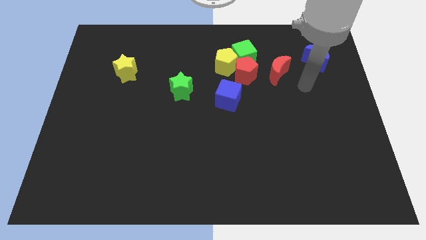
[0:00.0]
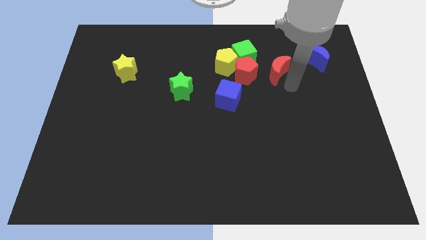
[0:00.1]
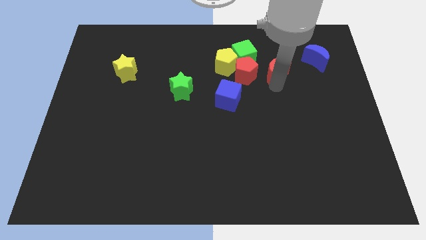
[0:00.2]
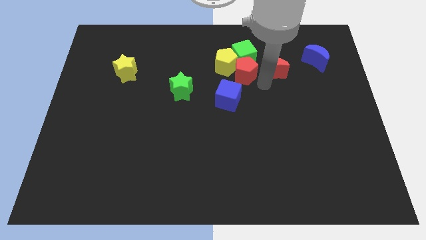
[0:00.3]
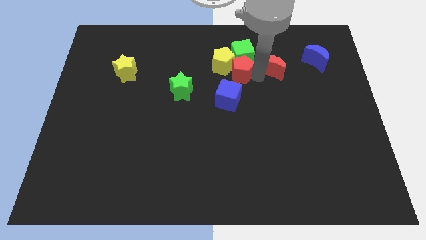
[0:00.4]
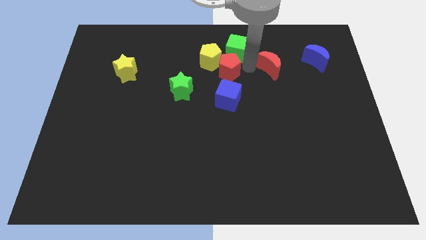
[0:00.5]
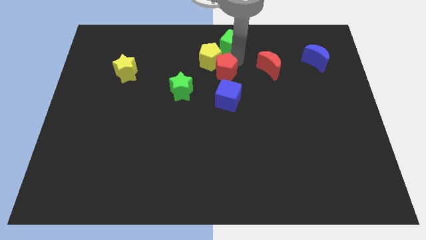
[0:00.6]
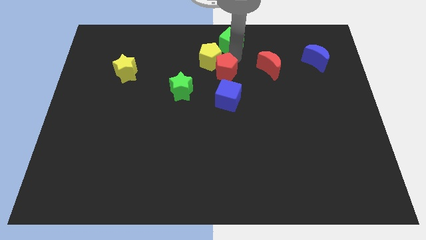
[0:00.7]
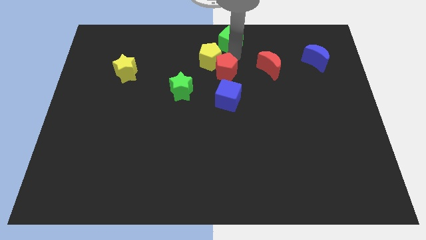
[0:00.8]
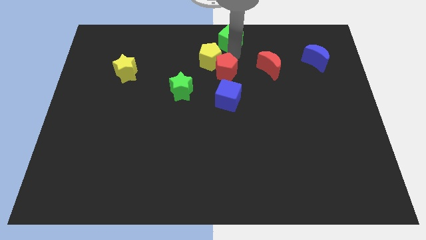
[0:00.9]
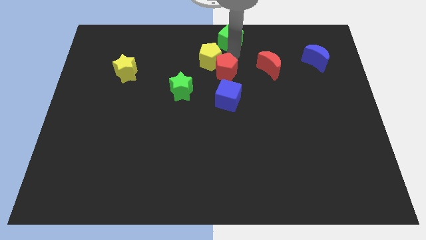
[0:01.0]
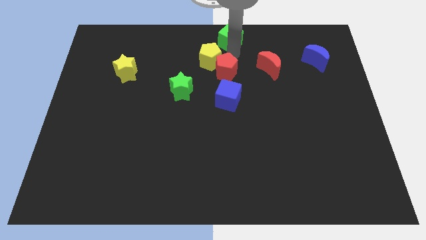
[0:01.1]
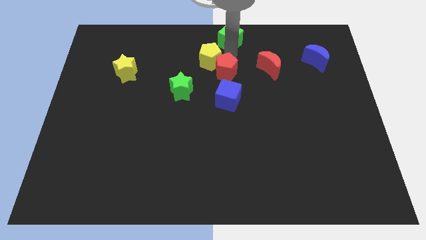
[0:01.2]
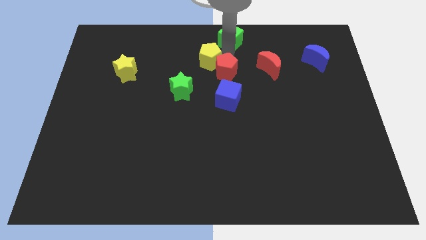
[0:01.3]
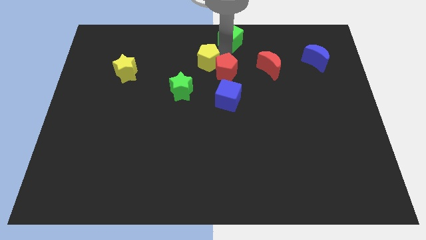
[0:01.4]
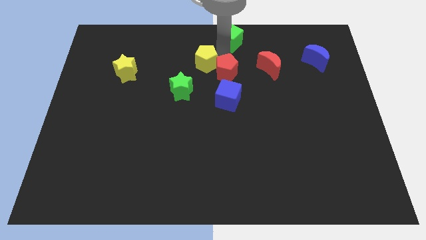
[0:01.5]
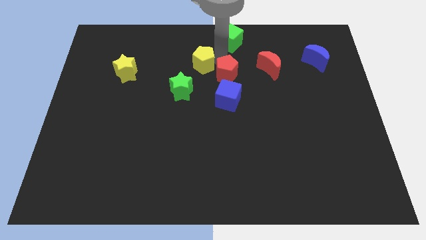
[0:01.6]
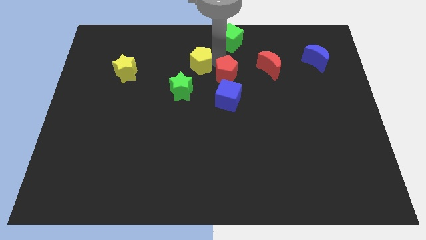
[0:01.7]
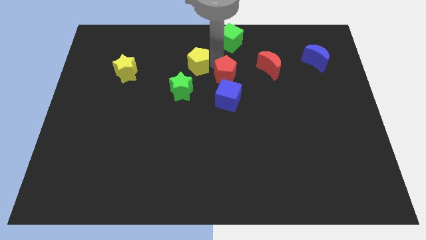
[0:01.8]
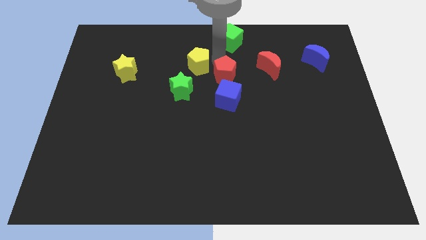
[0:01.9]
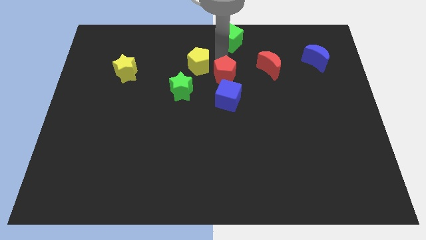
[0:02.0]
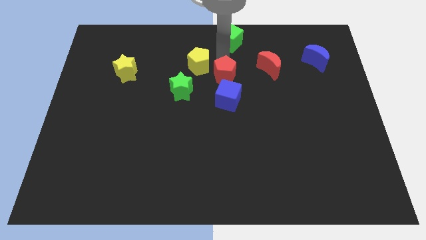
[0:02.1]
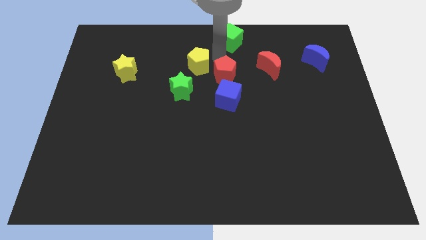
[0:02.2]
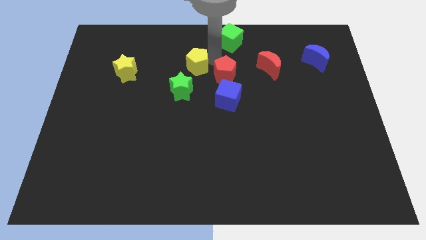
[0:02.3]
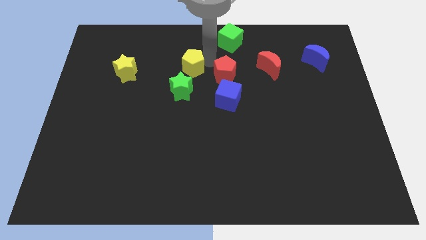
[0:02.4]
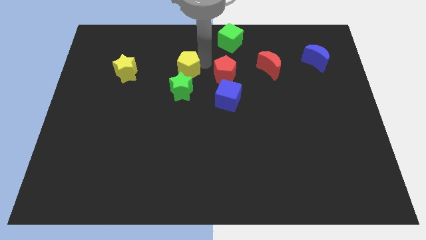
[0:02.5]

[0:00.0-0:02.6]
pull the yellow pentagon apart from the green cube and red pentagon

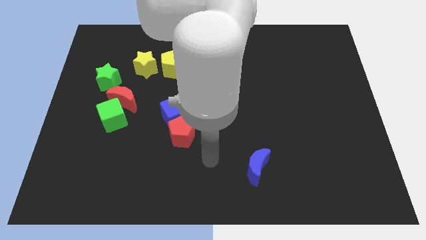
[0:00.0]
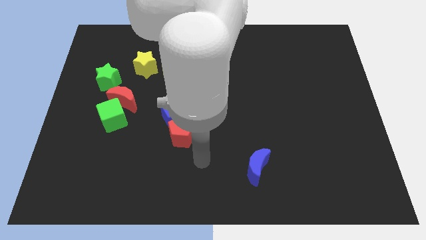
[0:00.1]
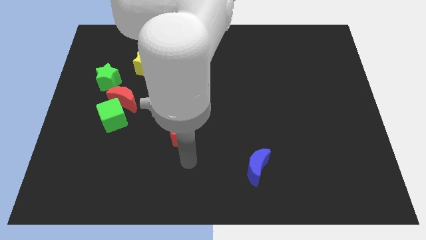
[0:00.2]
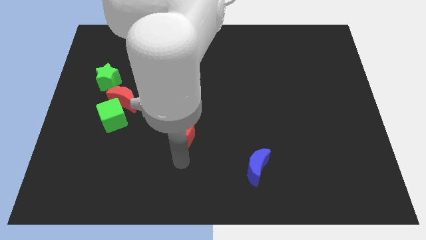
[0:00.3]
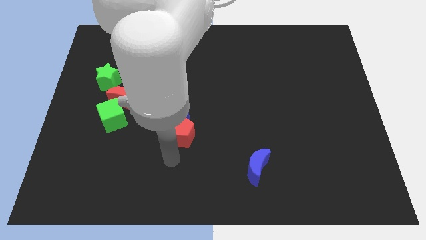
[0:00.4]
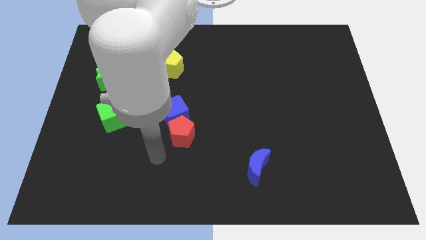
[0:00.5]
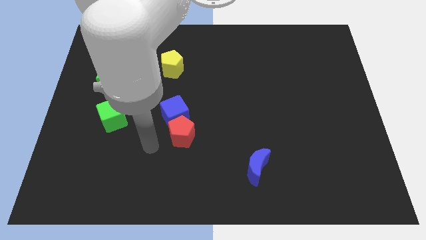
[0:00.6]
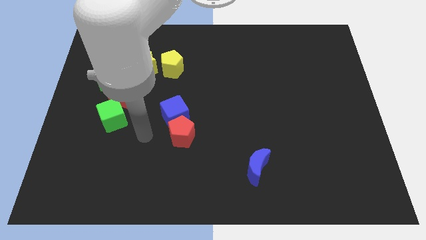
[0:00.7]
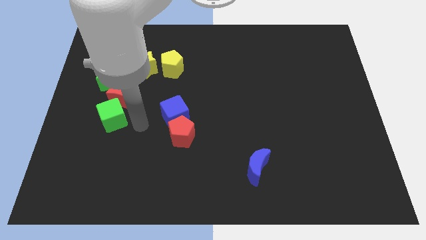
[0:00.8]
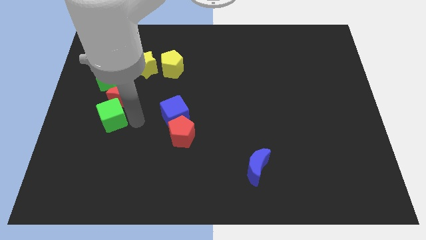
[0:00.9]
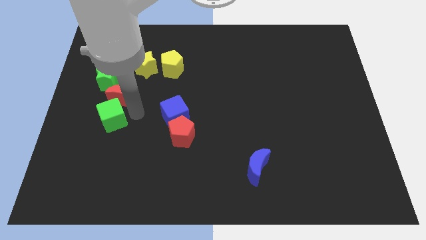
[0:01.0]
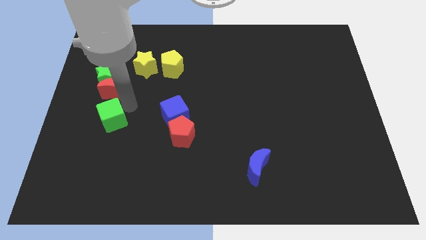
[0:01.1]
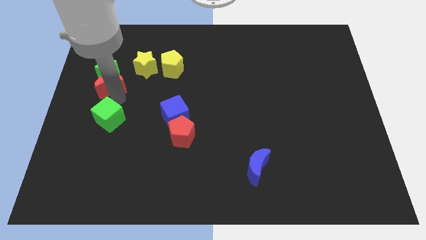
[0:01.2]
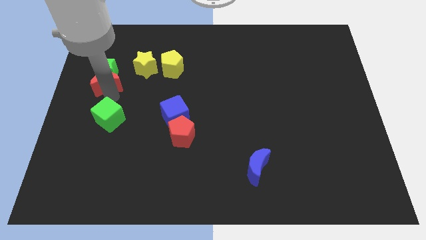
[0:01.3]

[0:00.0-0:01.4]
pull the green cube apart from the red moon

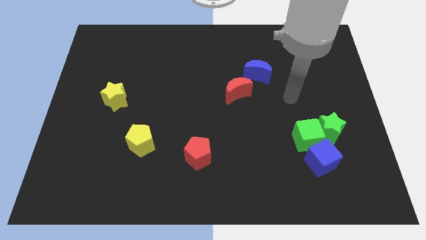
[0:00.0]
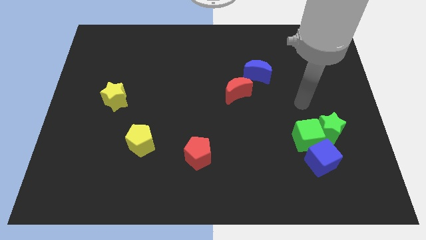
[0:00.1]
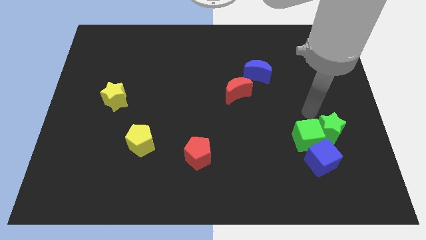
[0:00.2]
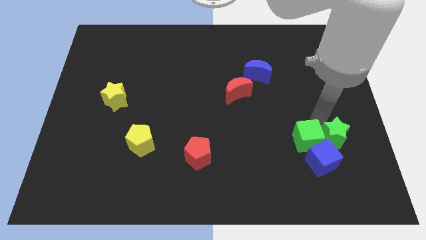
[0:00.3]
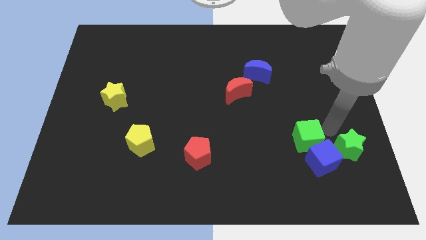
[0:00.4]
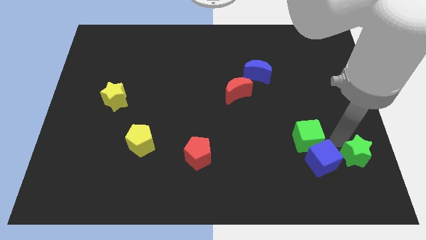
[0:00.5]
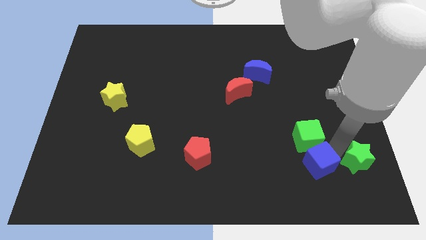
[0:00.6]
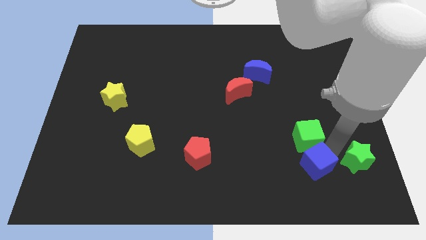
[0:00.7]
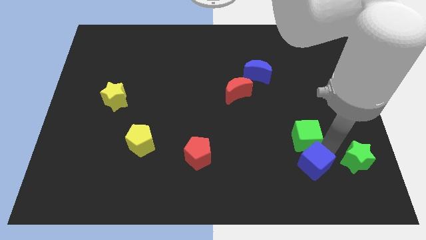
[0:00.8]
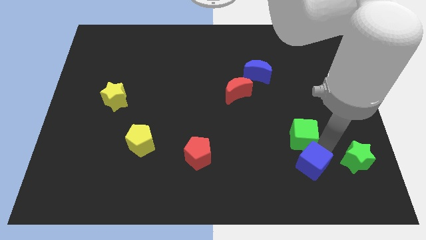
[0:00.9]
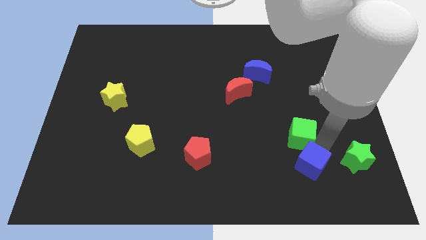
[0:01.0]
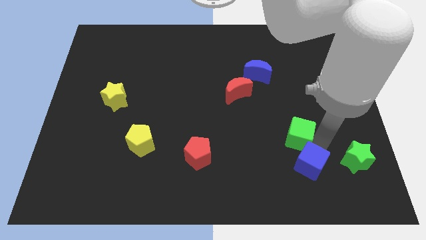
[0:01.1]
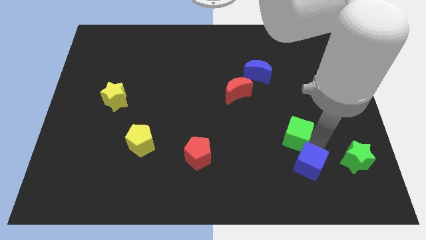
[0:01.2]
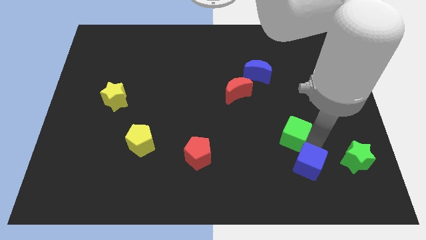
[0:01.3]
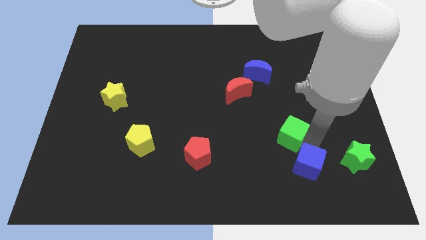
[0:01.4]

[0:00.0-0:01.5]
separate the green cube from the green star and blue cube

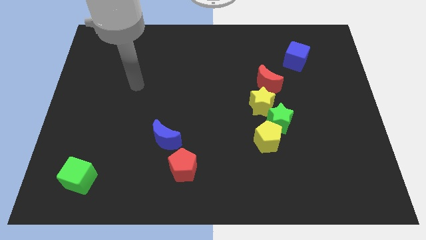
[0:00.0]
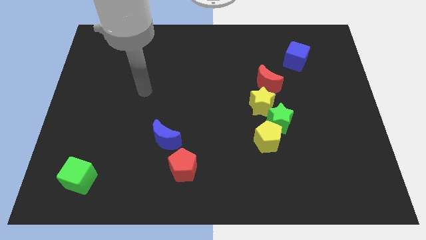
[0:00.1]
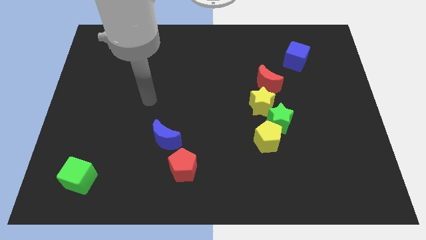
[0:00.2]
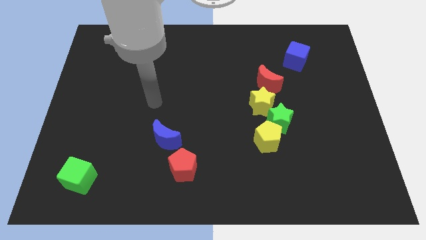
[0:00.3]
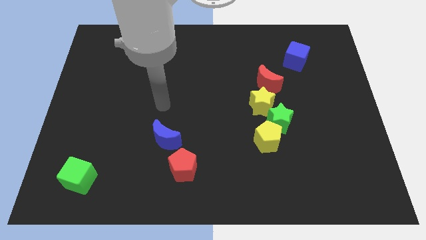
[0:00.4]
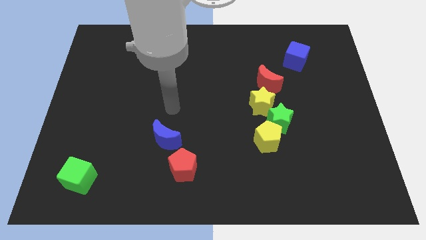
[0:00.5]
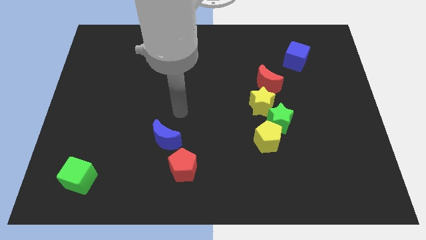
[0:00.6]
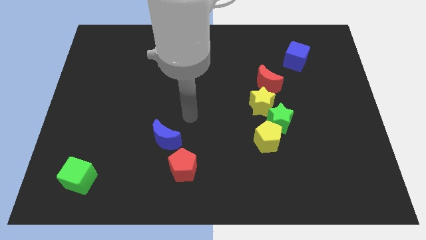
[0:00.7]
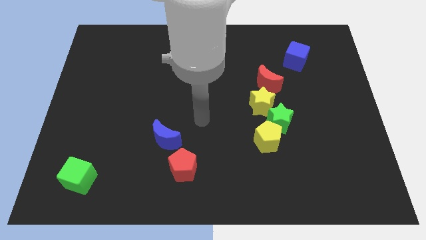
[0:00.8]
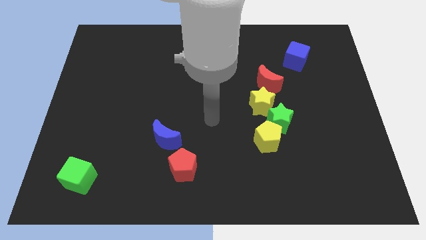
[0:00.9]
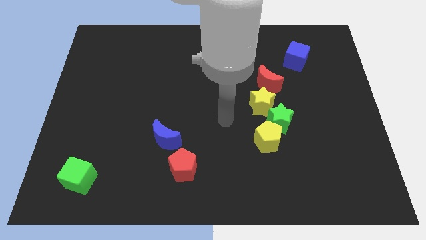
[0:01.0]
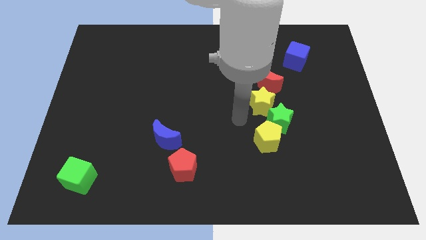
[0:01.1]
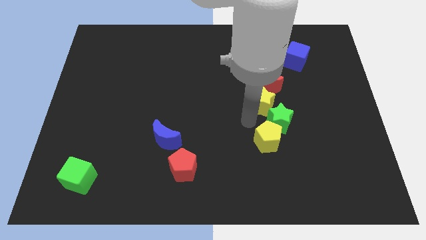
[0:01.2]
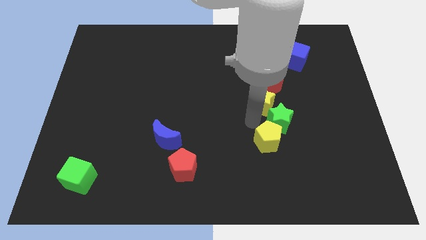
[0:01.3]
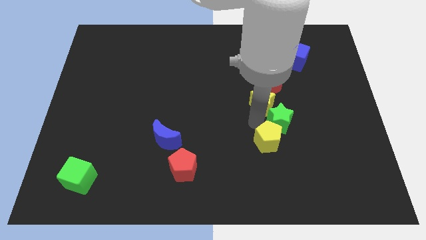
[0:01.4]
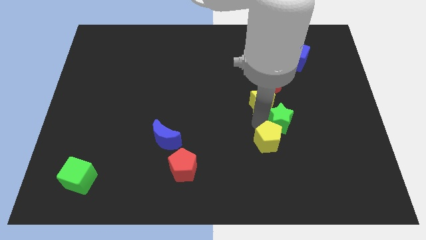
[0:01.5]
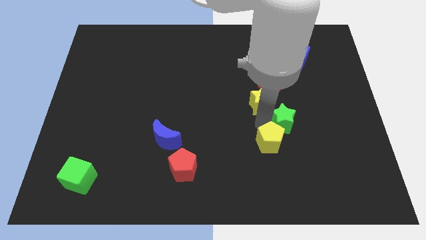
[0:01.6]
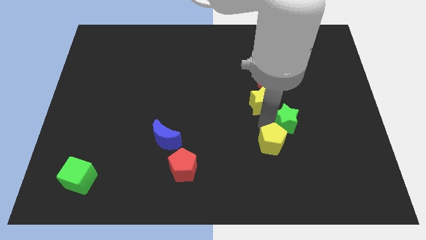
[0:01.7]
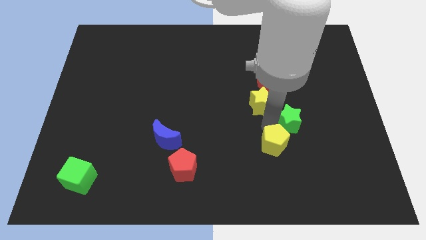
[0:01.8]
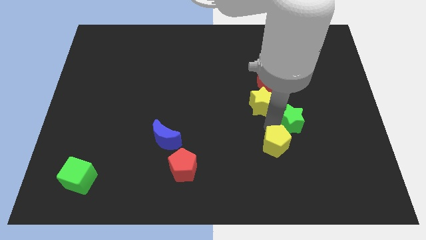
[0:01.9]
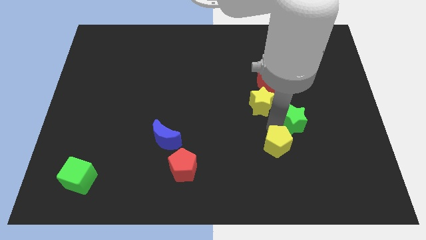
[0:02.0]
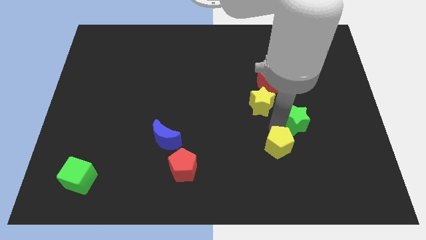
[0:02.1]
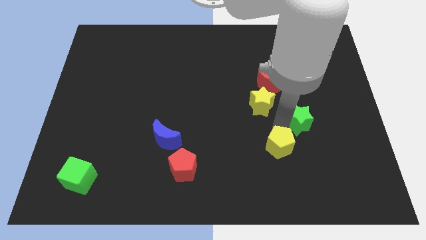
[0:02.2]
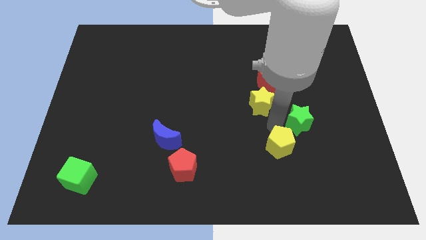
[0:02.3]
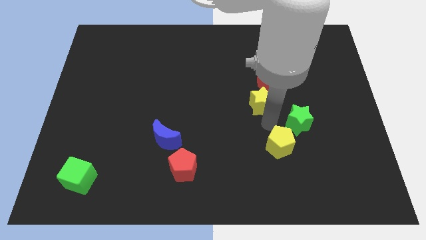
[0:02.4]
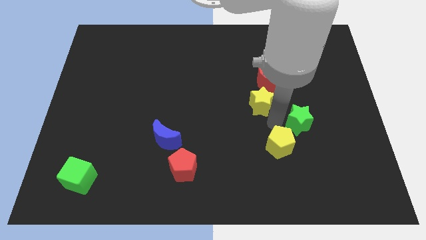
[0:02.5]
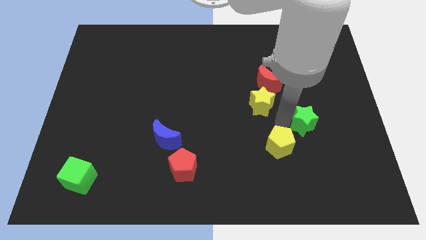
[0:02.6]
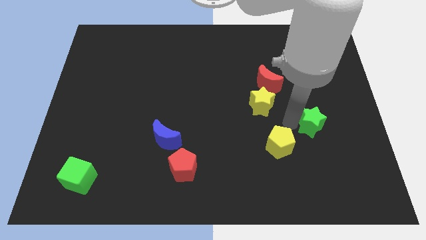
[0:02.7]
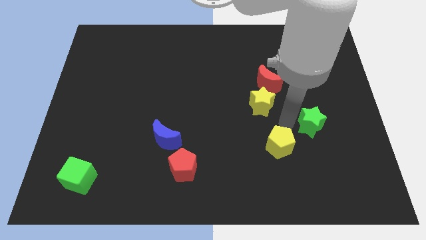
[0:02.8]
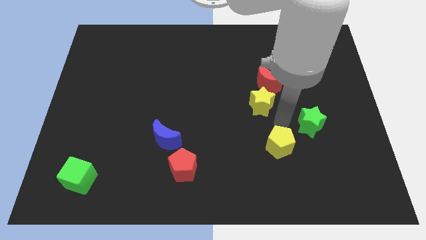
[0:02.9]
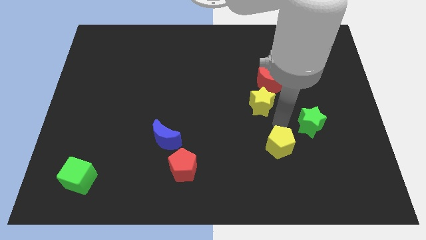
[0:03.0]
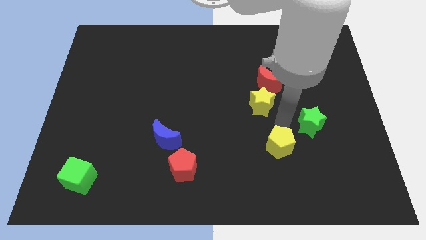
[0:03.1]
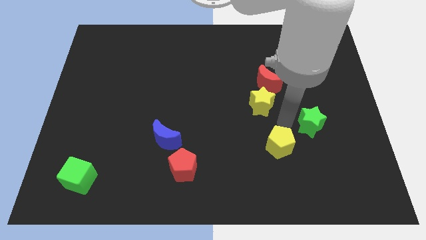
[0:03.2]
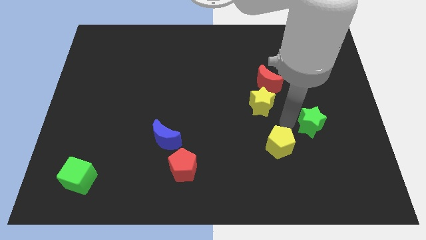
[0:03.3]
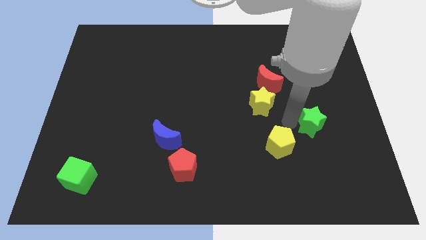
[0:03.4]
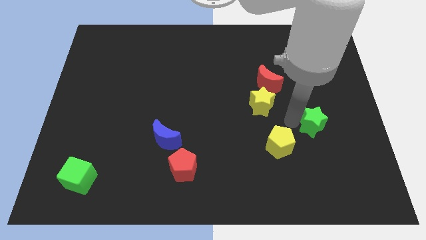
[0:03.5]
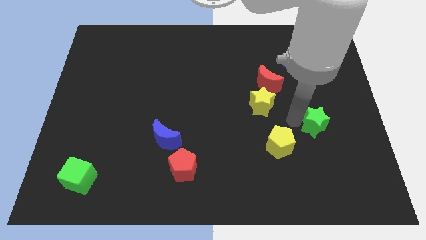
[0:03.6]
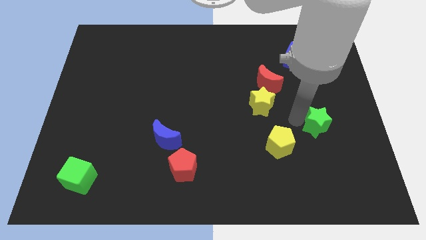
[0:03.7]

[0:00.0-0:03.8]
move the green star away from the yellow pentagon and yellow star

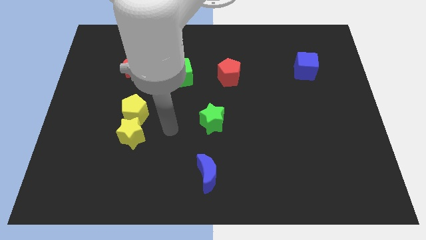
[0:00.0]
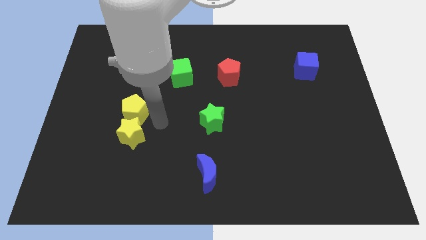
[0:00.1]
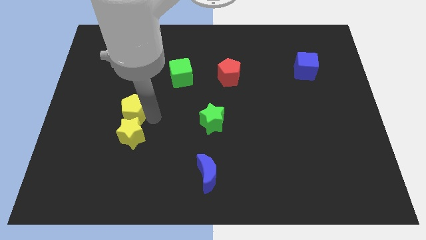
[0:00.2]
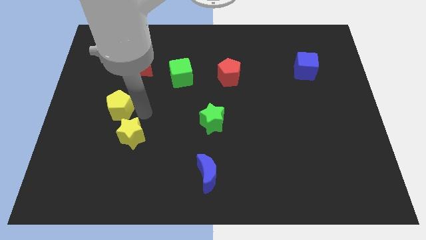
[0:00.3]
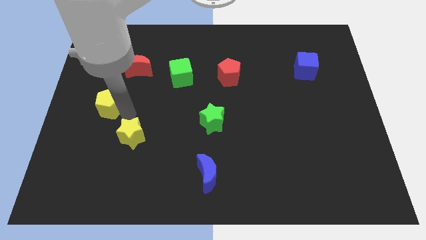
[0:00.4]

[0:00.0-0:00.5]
separate the yellow star from the yellow pentagon
